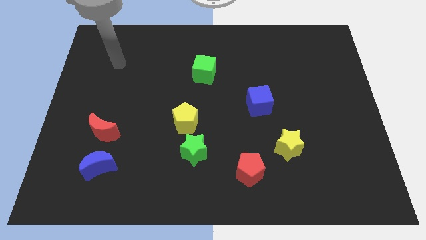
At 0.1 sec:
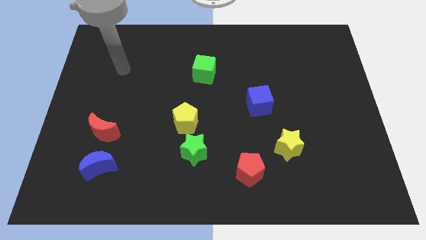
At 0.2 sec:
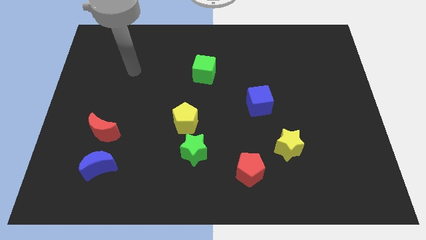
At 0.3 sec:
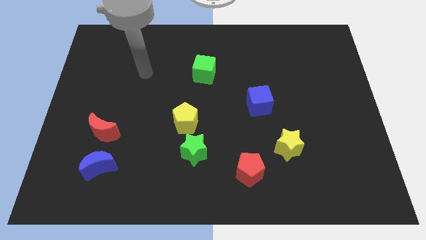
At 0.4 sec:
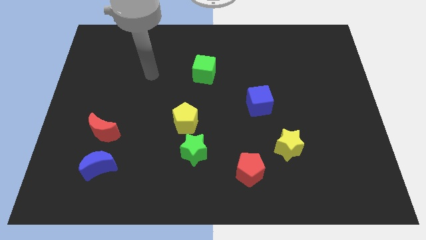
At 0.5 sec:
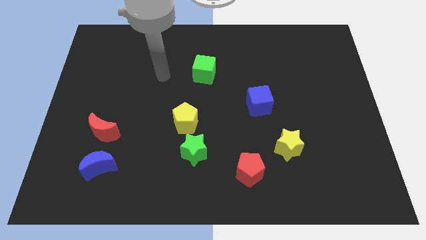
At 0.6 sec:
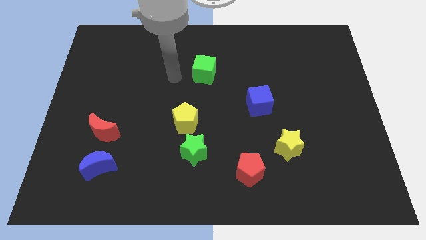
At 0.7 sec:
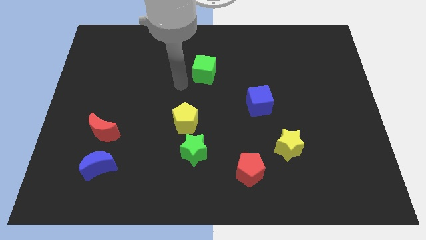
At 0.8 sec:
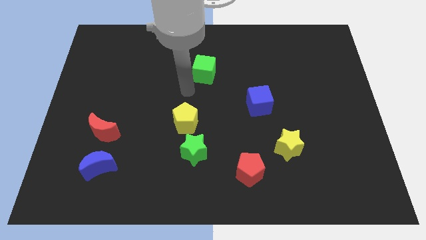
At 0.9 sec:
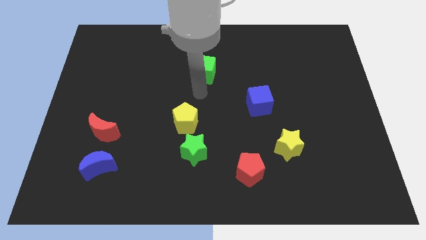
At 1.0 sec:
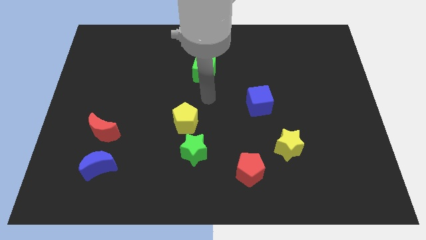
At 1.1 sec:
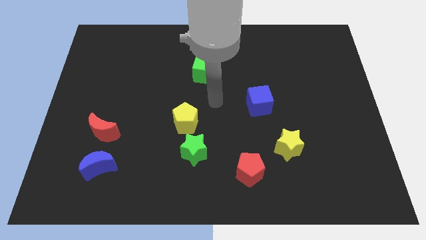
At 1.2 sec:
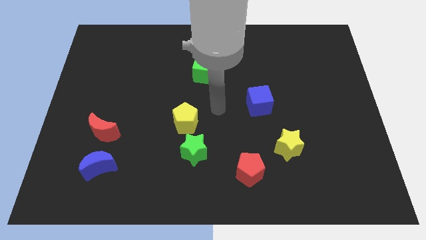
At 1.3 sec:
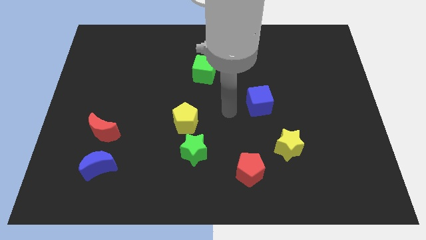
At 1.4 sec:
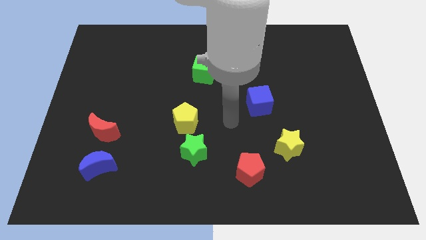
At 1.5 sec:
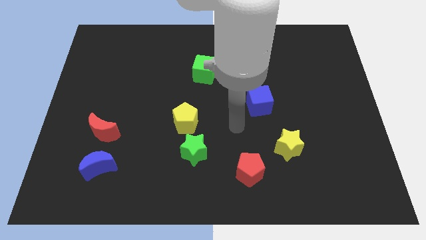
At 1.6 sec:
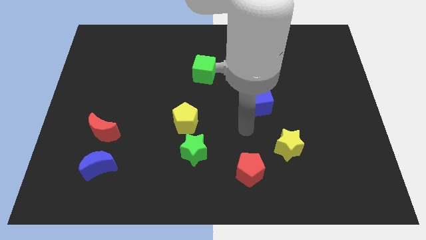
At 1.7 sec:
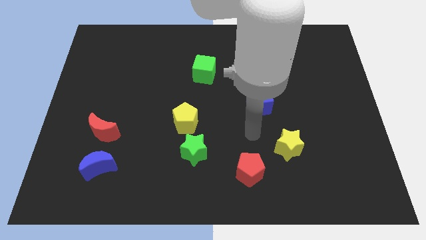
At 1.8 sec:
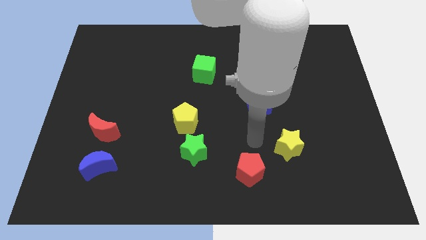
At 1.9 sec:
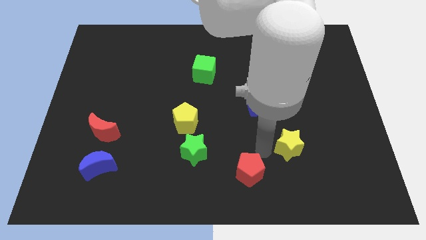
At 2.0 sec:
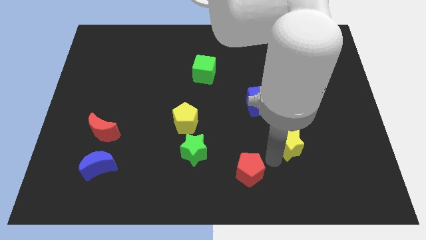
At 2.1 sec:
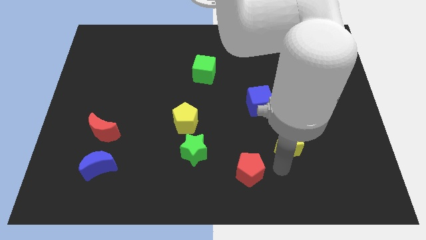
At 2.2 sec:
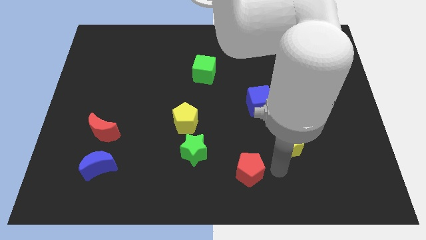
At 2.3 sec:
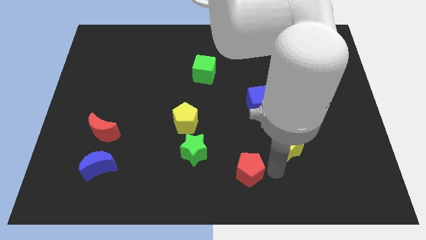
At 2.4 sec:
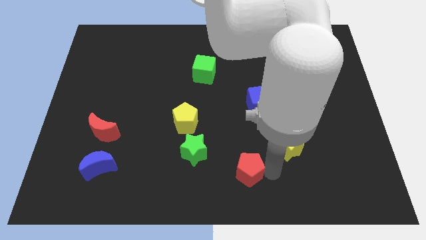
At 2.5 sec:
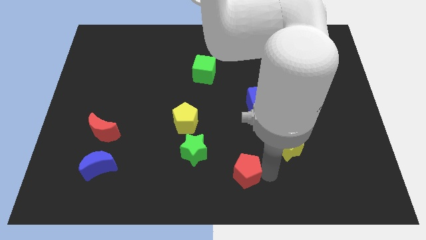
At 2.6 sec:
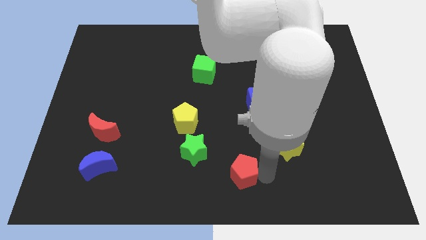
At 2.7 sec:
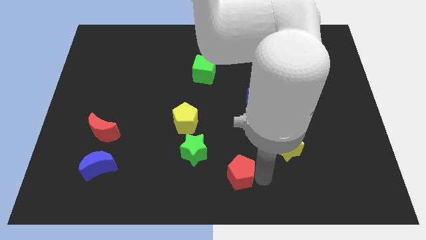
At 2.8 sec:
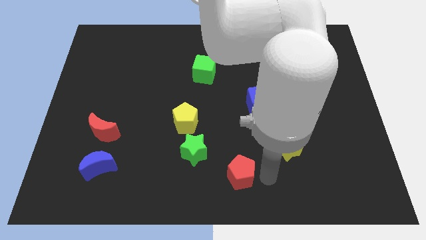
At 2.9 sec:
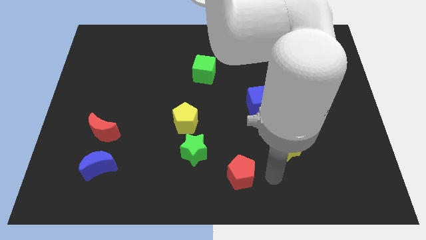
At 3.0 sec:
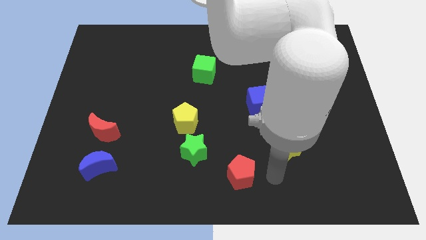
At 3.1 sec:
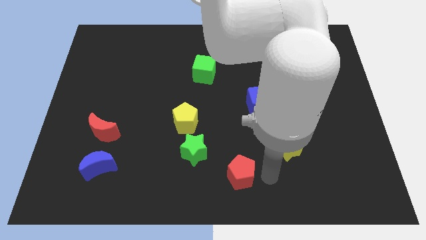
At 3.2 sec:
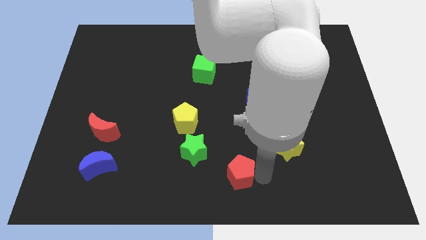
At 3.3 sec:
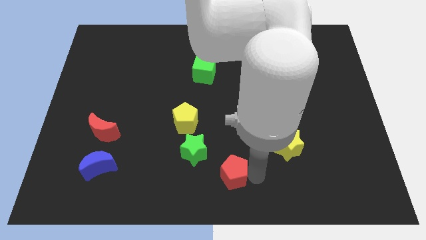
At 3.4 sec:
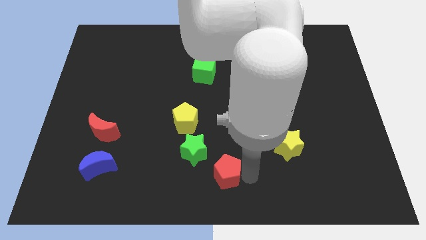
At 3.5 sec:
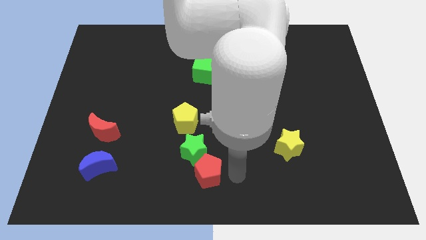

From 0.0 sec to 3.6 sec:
move the red pentagon left a little bit

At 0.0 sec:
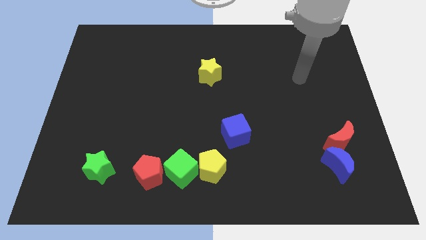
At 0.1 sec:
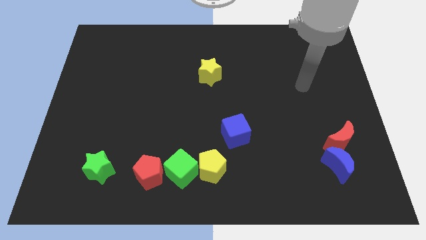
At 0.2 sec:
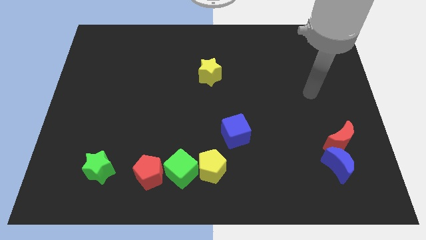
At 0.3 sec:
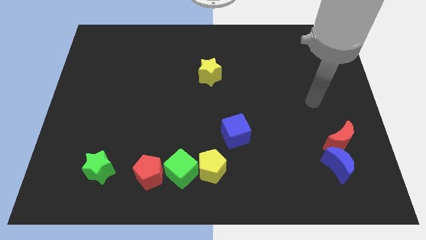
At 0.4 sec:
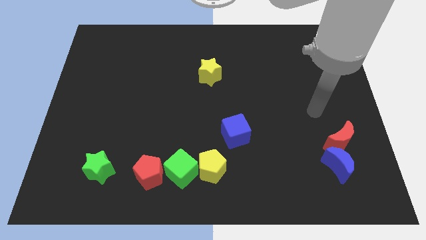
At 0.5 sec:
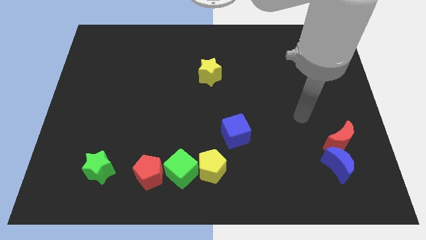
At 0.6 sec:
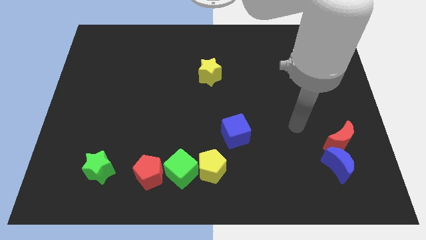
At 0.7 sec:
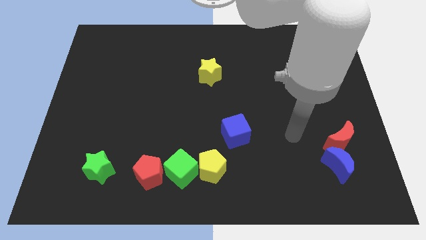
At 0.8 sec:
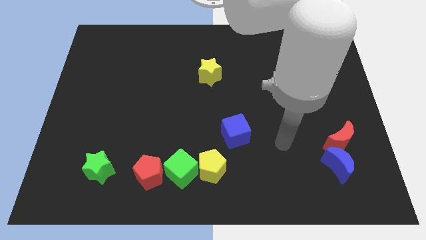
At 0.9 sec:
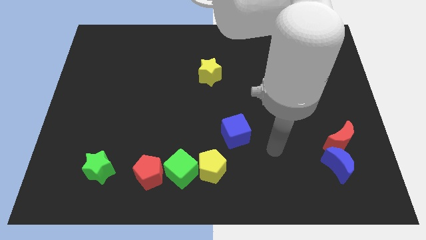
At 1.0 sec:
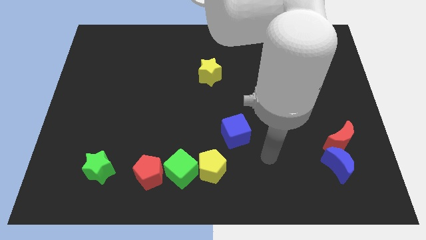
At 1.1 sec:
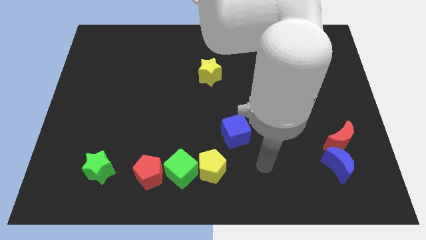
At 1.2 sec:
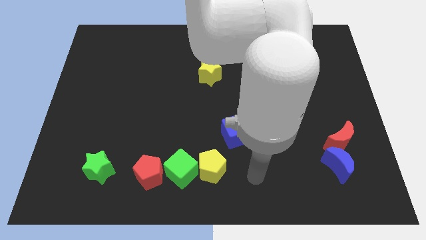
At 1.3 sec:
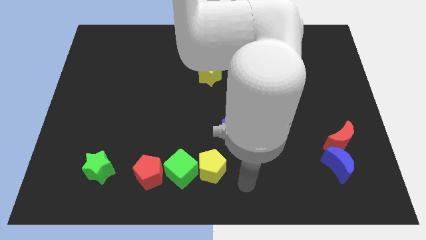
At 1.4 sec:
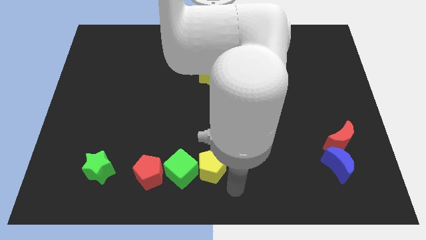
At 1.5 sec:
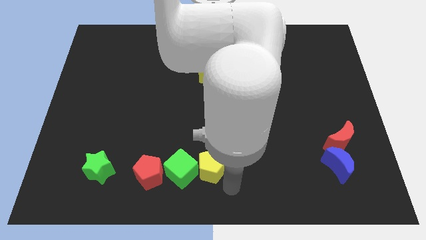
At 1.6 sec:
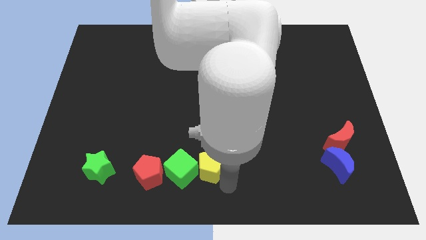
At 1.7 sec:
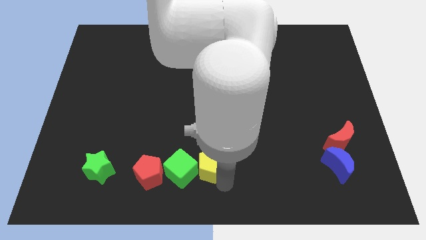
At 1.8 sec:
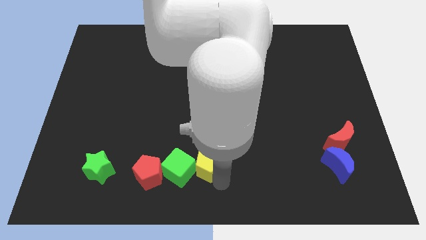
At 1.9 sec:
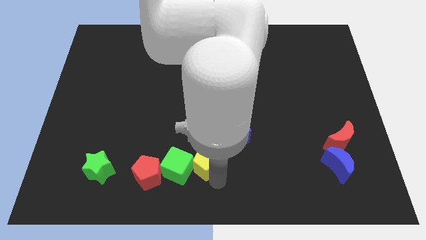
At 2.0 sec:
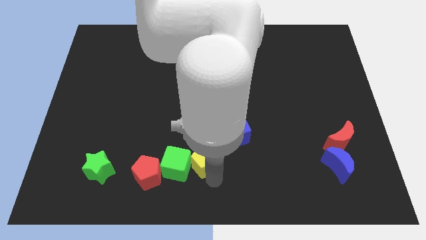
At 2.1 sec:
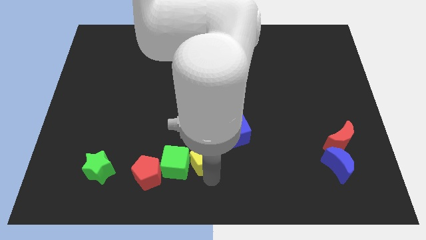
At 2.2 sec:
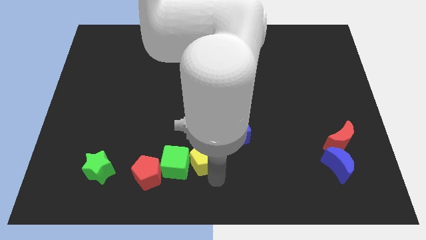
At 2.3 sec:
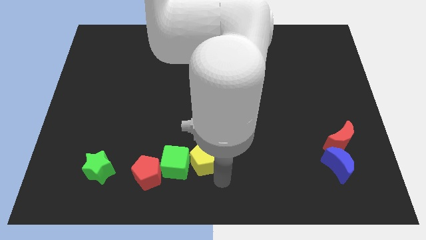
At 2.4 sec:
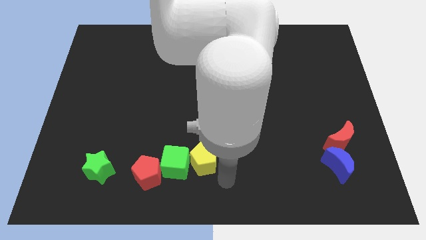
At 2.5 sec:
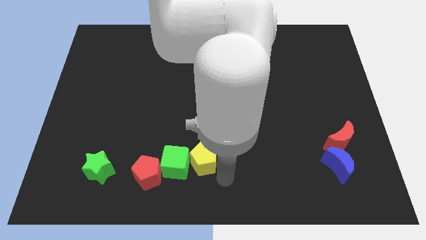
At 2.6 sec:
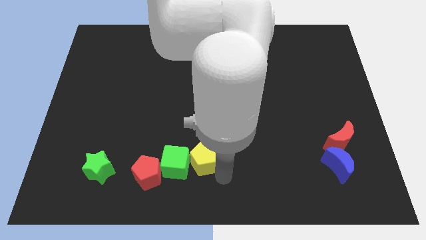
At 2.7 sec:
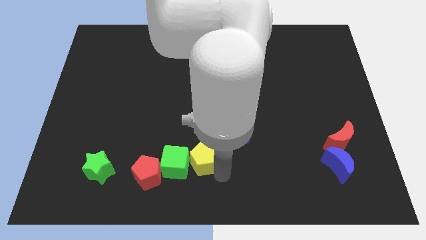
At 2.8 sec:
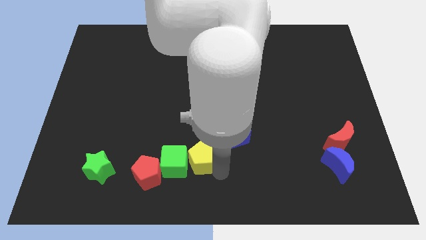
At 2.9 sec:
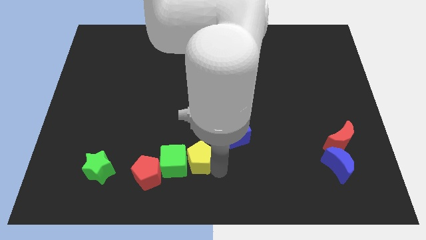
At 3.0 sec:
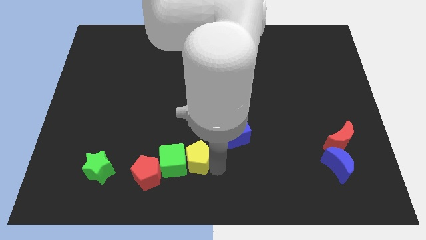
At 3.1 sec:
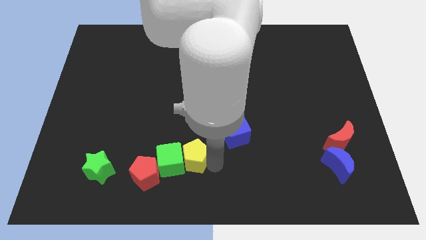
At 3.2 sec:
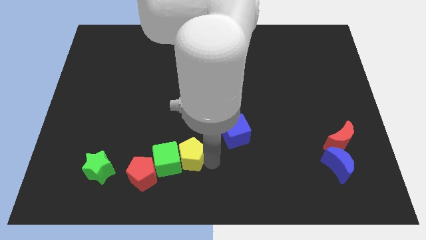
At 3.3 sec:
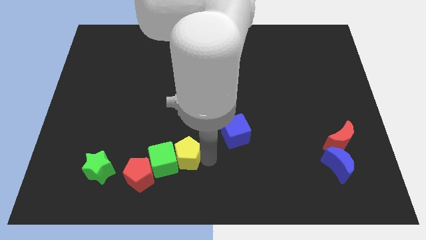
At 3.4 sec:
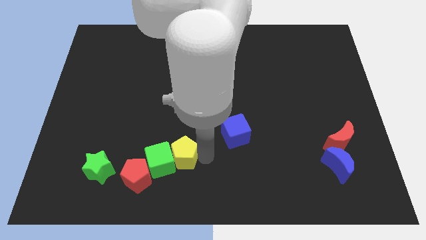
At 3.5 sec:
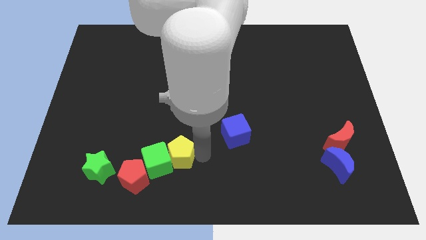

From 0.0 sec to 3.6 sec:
slide the yellow pentagon slightly upwards and left

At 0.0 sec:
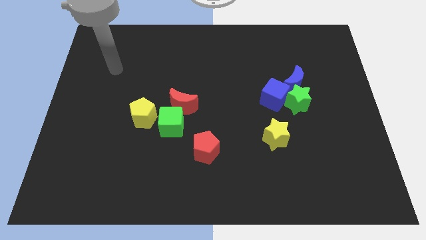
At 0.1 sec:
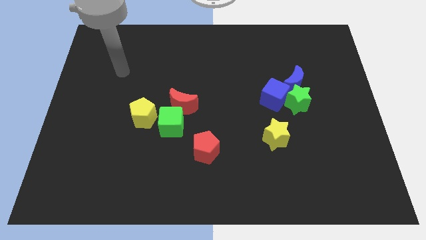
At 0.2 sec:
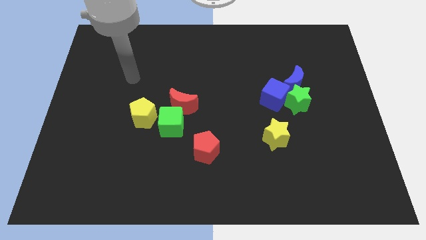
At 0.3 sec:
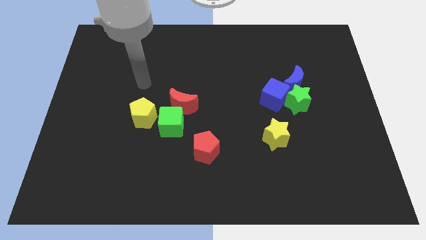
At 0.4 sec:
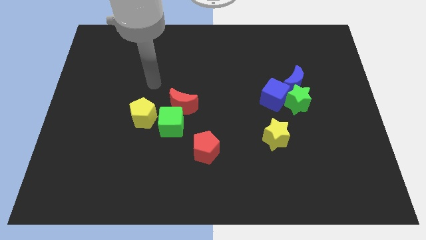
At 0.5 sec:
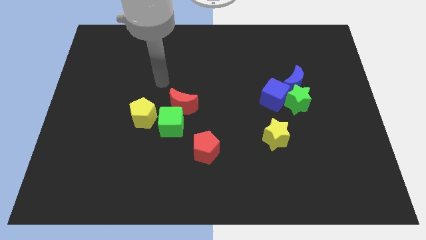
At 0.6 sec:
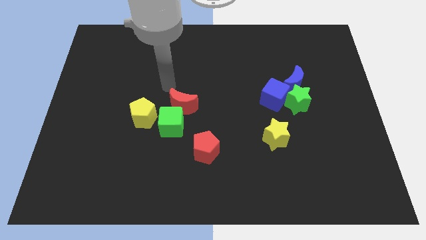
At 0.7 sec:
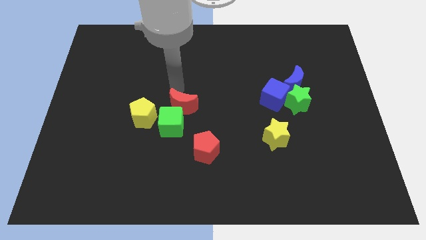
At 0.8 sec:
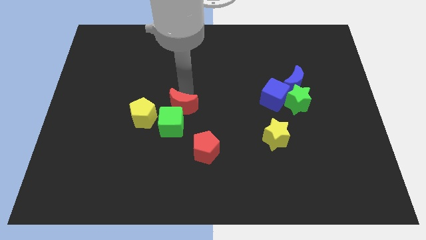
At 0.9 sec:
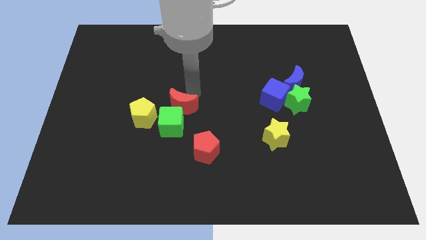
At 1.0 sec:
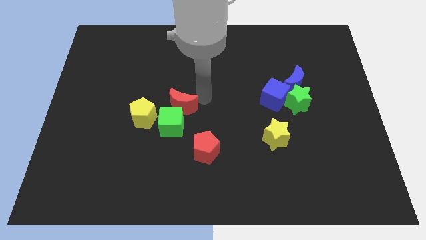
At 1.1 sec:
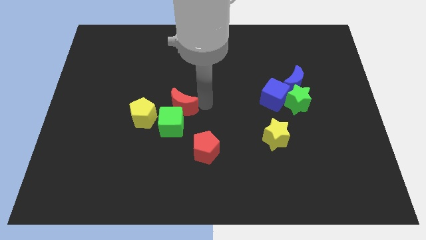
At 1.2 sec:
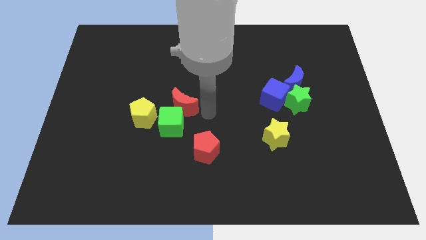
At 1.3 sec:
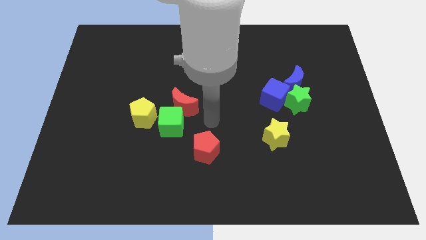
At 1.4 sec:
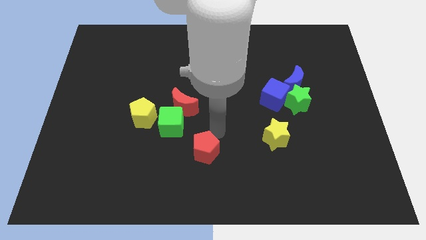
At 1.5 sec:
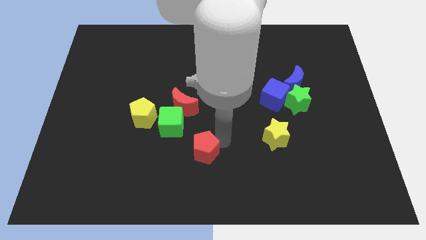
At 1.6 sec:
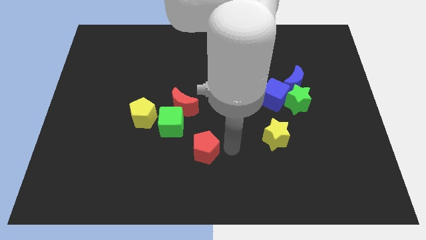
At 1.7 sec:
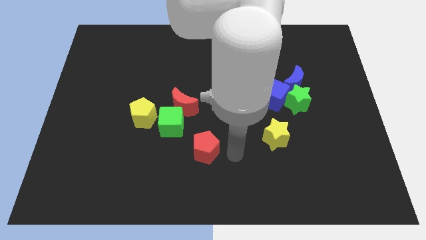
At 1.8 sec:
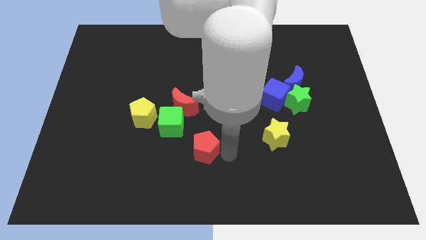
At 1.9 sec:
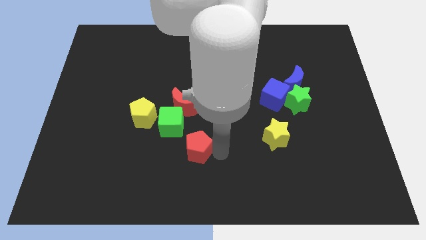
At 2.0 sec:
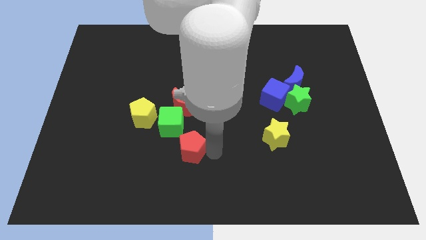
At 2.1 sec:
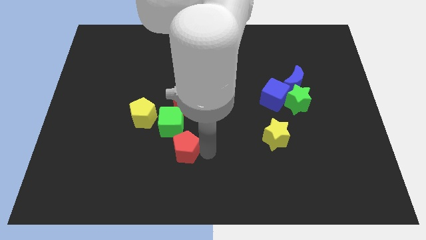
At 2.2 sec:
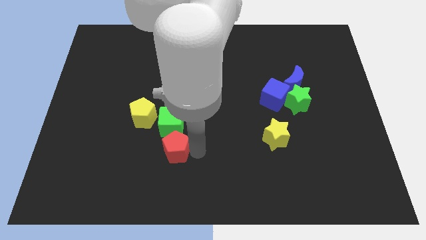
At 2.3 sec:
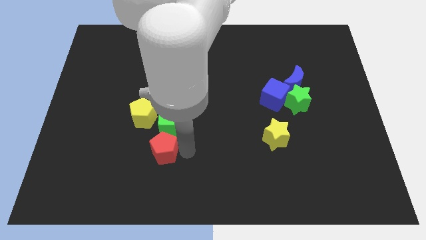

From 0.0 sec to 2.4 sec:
push the red pentagon somewhat to the left
